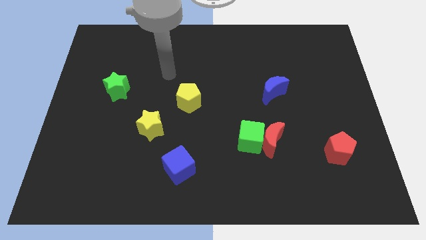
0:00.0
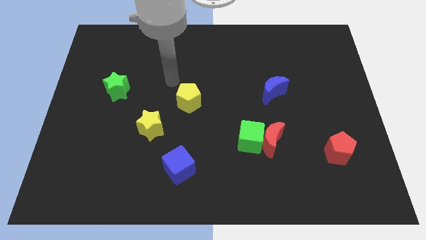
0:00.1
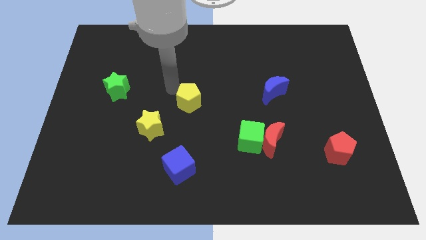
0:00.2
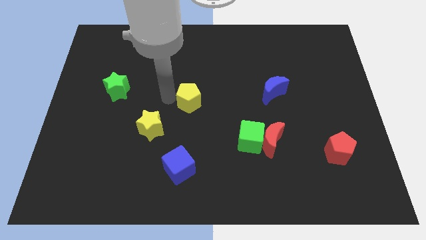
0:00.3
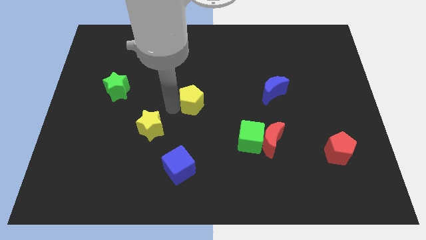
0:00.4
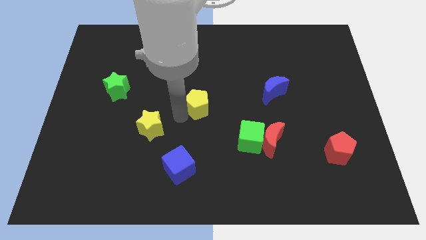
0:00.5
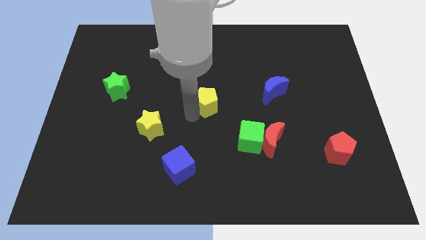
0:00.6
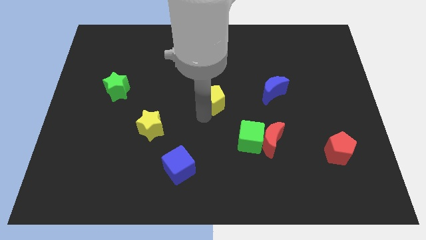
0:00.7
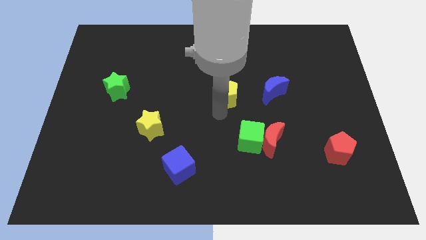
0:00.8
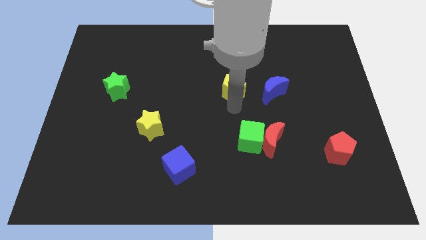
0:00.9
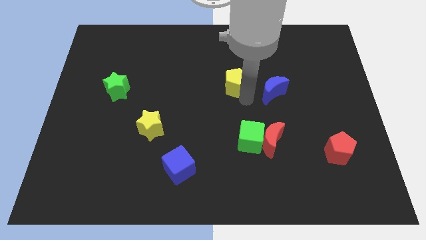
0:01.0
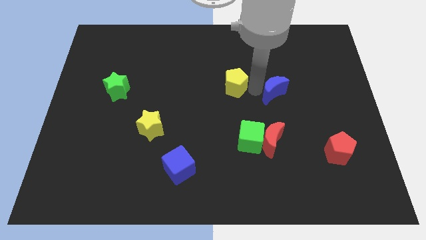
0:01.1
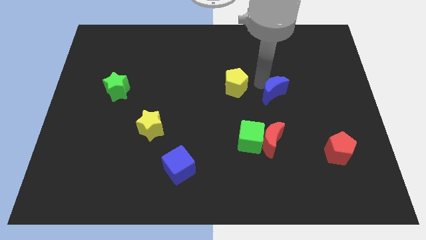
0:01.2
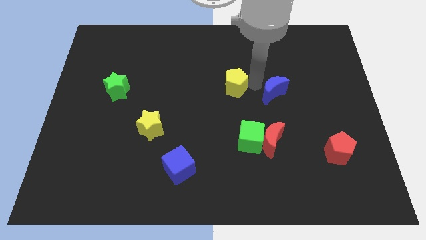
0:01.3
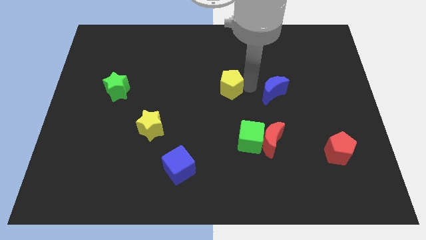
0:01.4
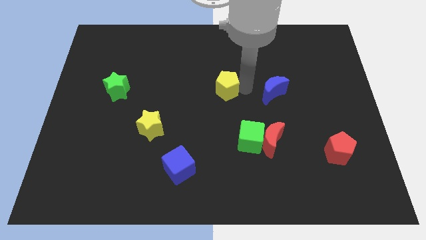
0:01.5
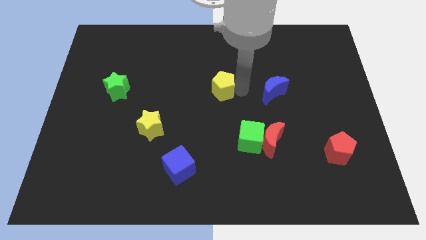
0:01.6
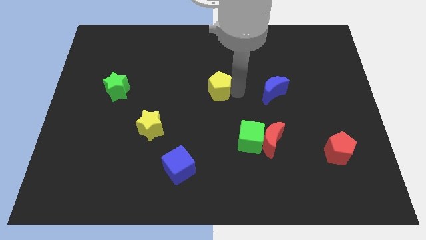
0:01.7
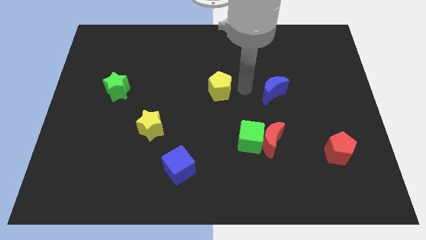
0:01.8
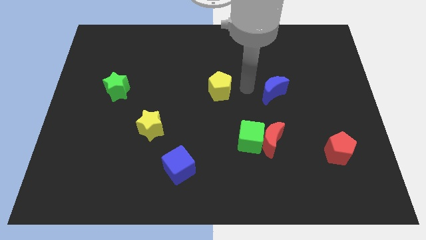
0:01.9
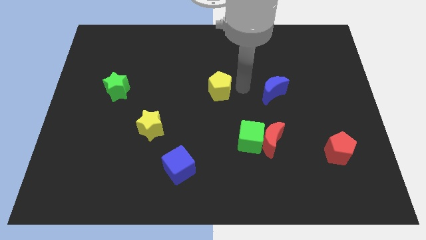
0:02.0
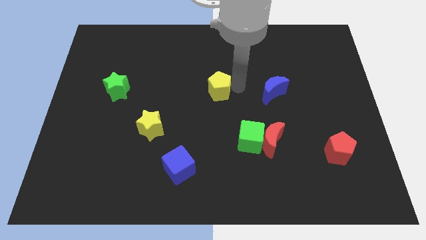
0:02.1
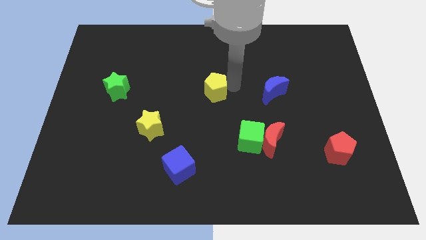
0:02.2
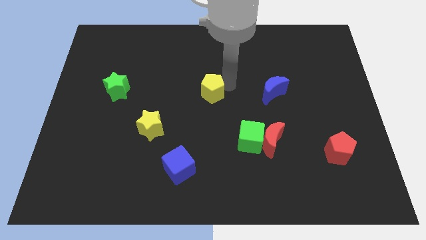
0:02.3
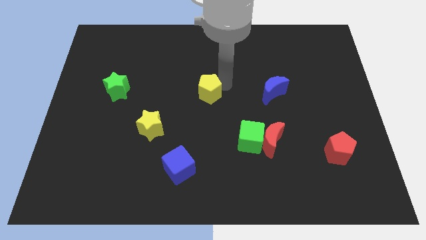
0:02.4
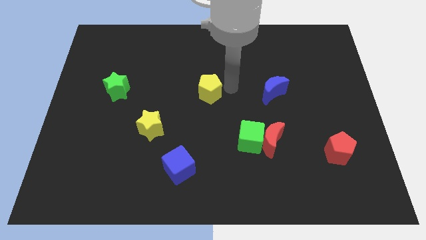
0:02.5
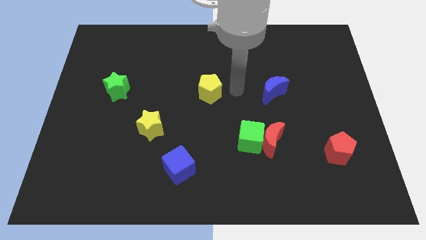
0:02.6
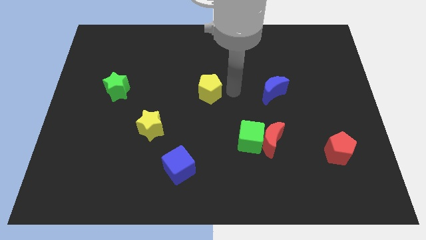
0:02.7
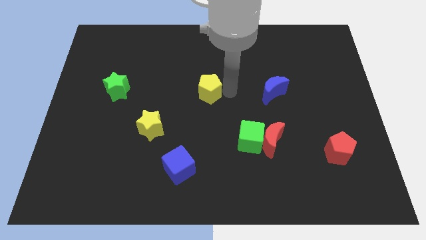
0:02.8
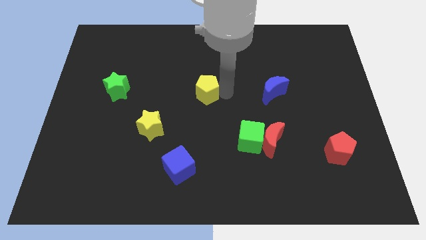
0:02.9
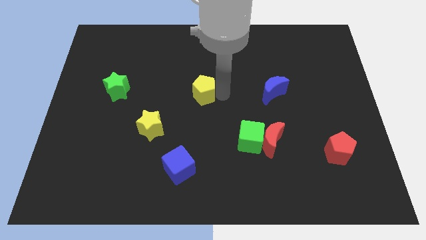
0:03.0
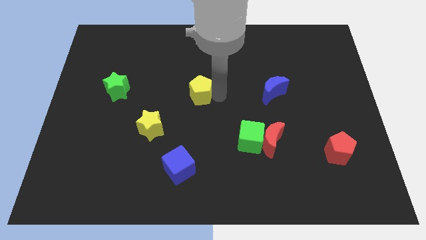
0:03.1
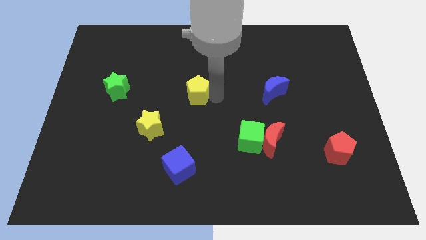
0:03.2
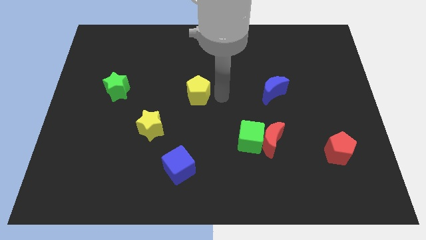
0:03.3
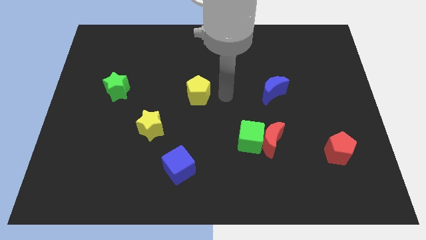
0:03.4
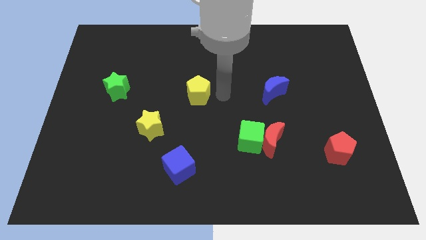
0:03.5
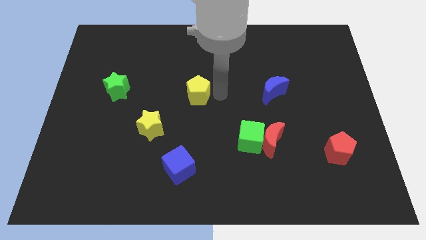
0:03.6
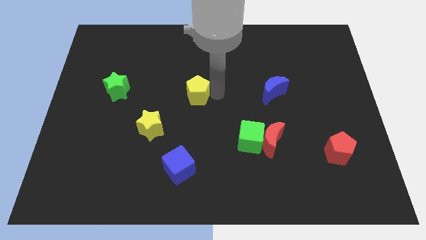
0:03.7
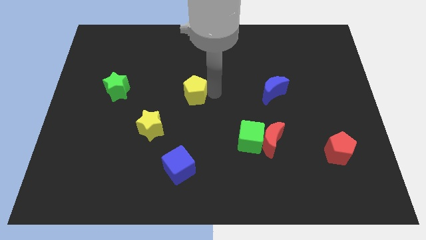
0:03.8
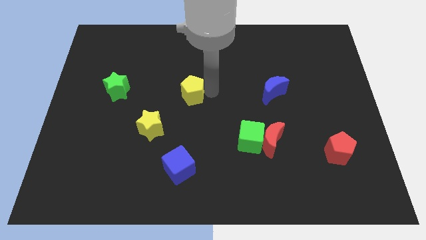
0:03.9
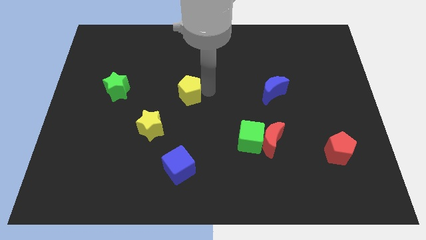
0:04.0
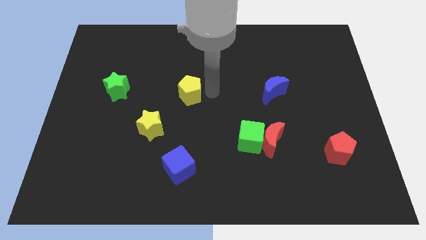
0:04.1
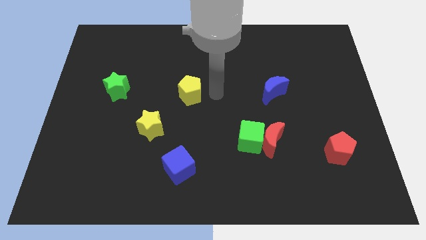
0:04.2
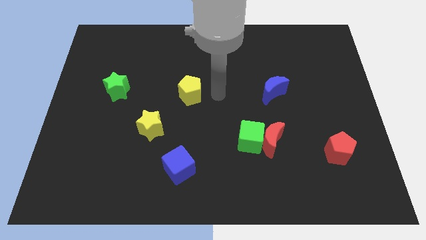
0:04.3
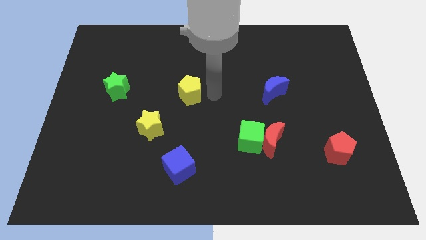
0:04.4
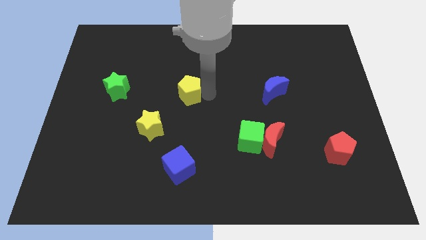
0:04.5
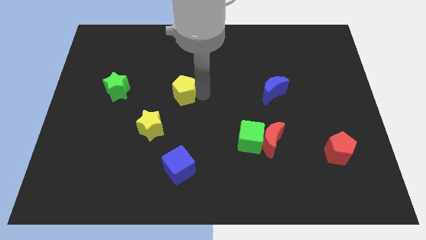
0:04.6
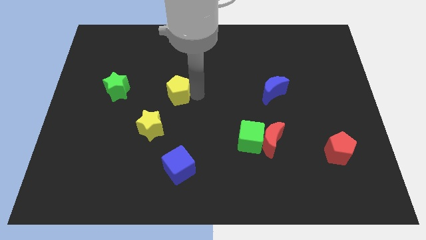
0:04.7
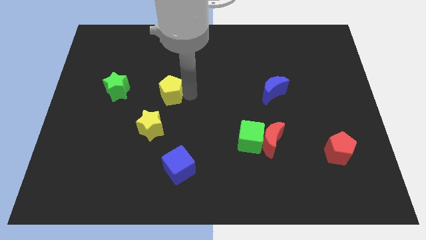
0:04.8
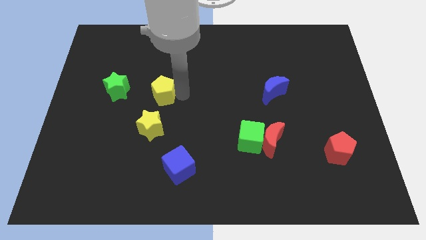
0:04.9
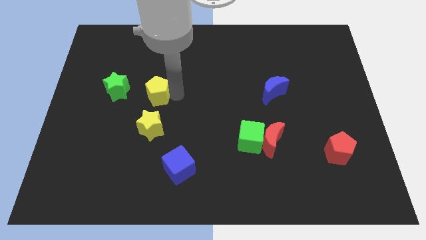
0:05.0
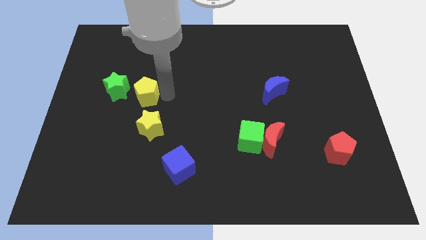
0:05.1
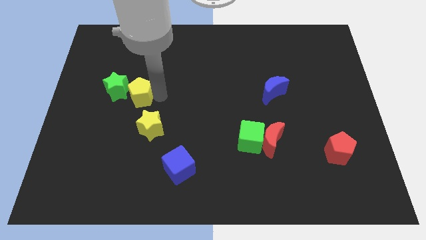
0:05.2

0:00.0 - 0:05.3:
move the yellow pentagon towards the green star

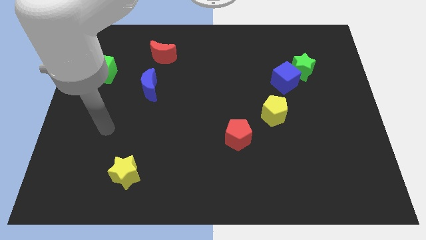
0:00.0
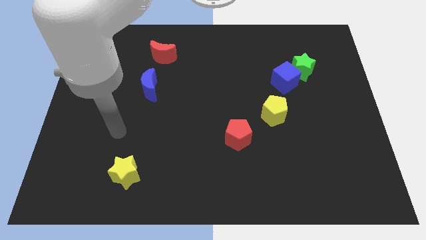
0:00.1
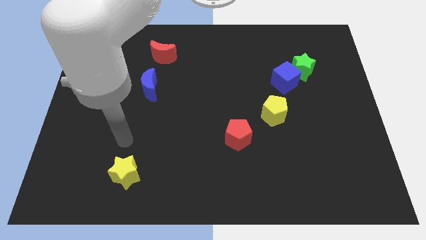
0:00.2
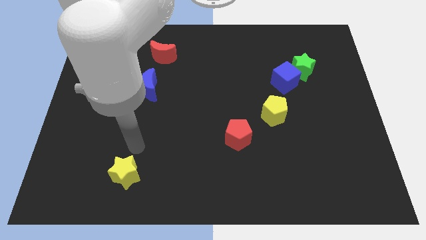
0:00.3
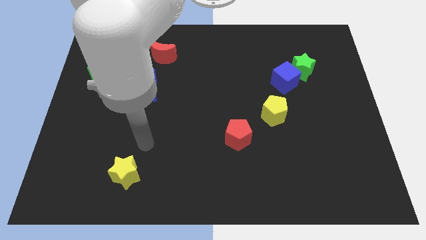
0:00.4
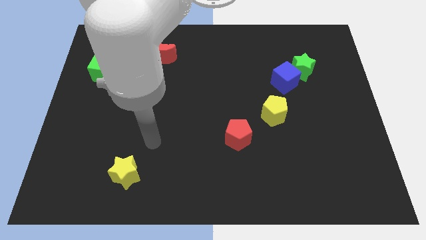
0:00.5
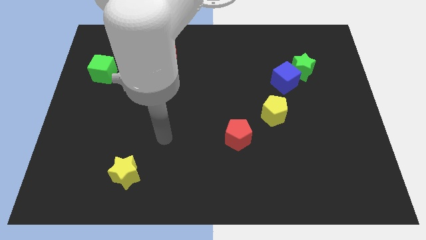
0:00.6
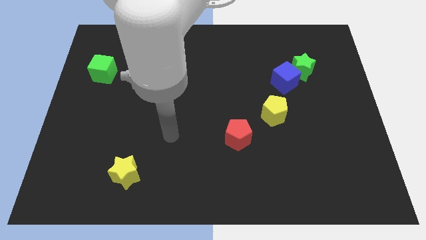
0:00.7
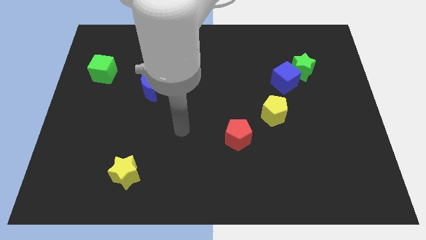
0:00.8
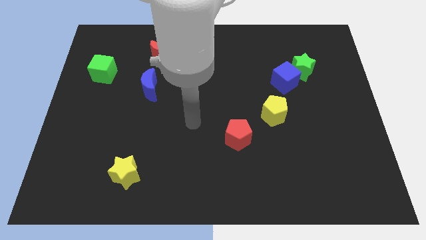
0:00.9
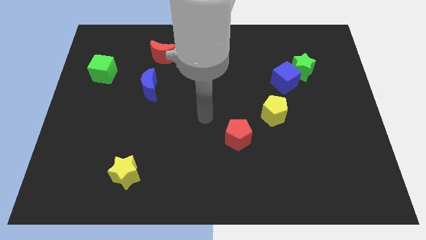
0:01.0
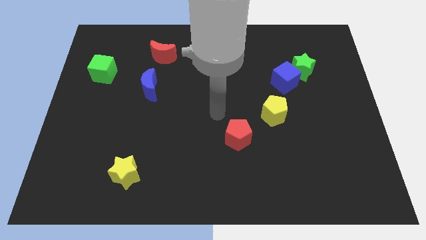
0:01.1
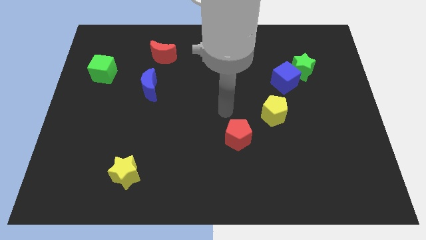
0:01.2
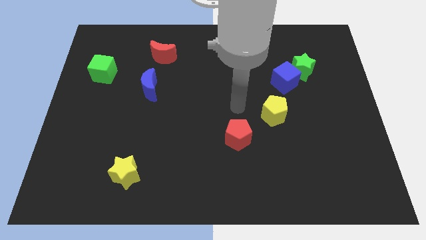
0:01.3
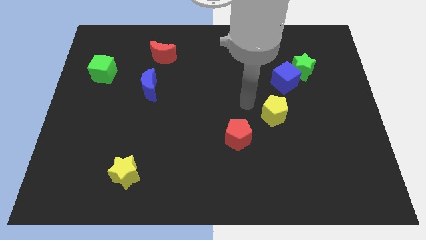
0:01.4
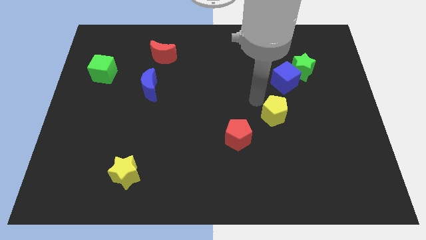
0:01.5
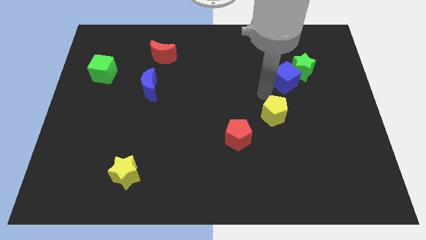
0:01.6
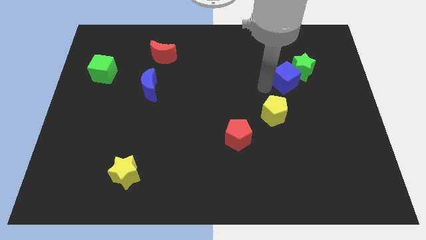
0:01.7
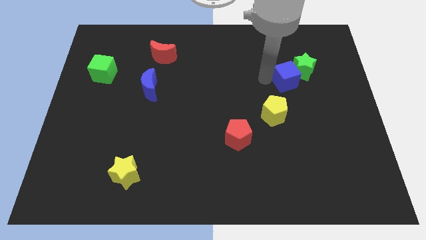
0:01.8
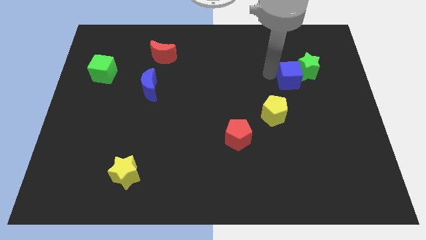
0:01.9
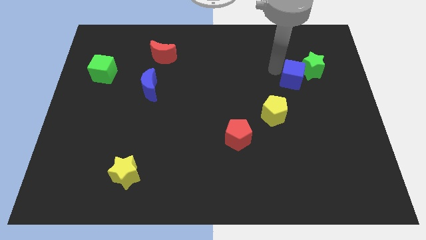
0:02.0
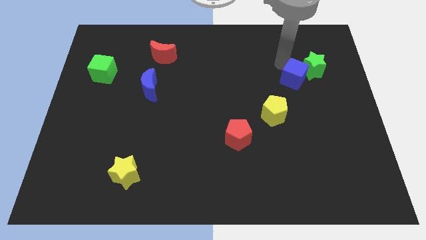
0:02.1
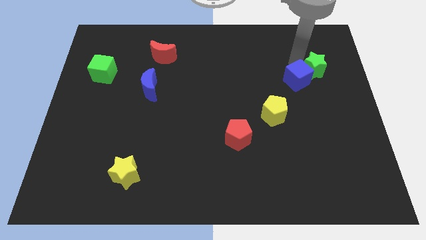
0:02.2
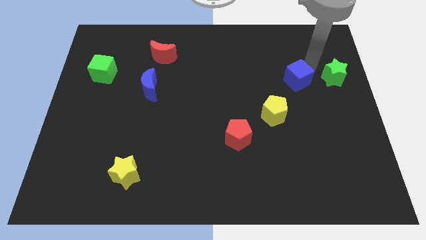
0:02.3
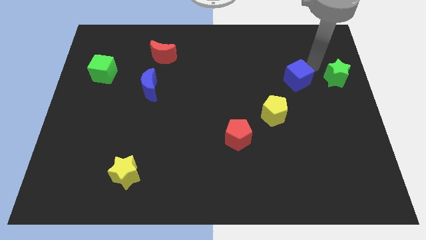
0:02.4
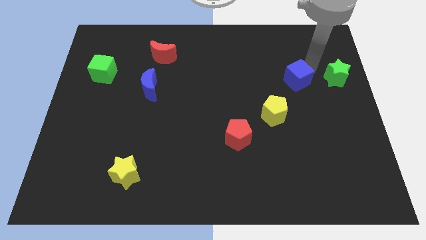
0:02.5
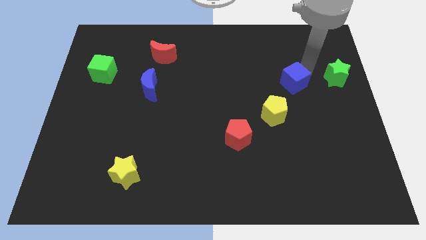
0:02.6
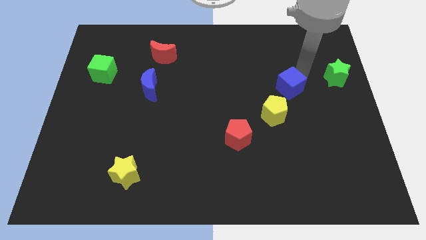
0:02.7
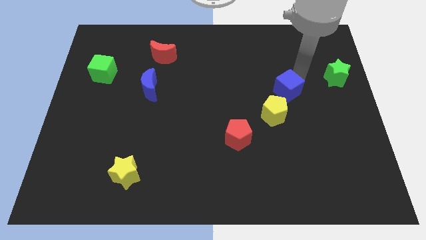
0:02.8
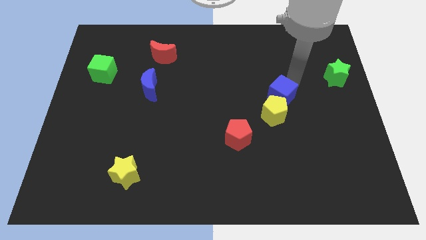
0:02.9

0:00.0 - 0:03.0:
move the blue cube next to the yellow pentagon
